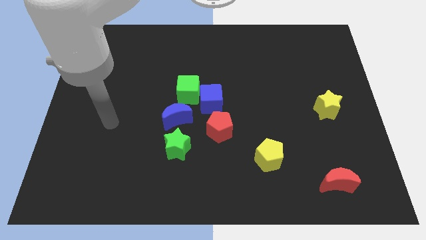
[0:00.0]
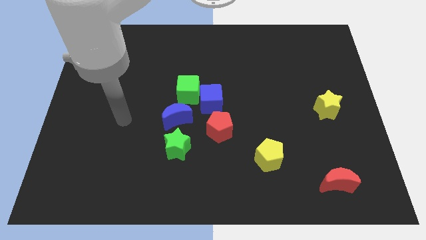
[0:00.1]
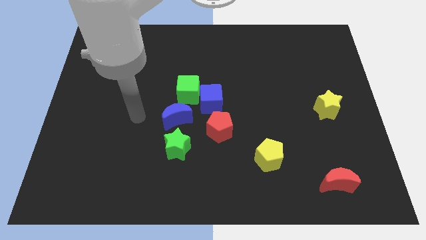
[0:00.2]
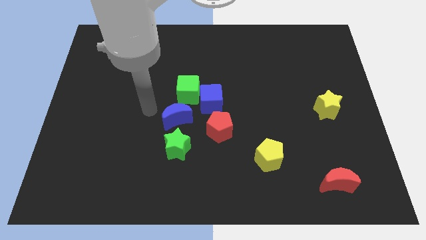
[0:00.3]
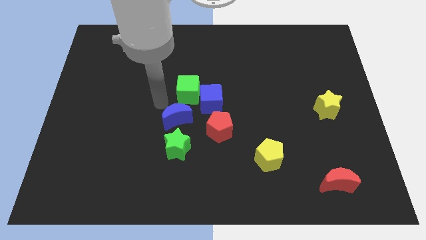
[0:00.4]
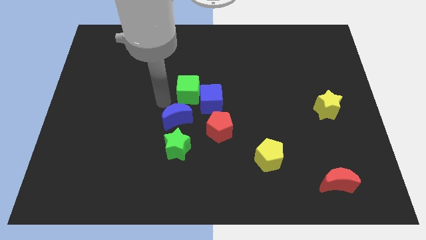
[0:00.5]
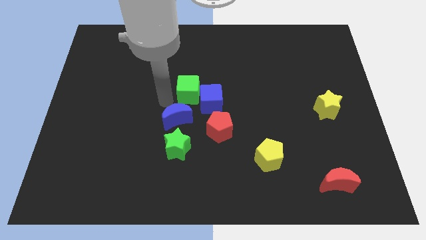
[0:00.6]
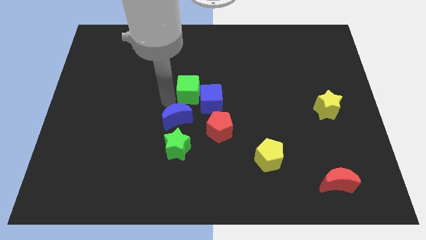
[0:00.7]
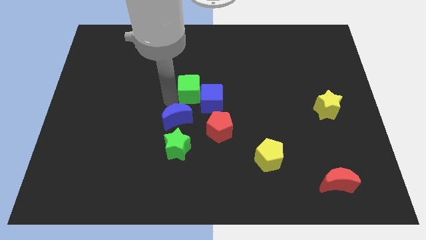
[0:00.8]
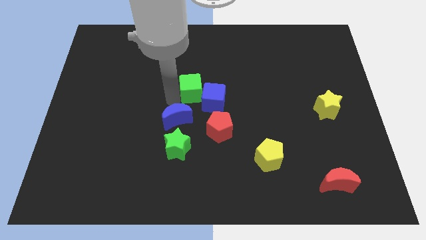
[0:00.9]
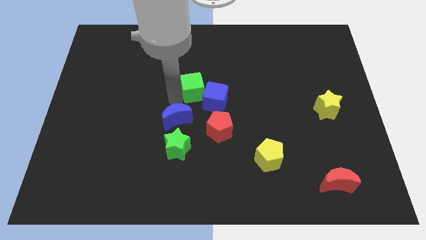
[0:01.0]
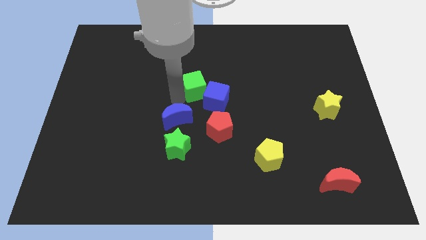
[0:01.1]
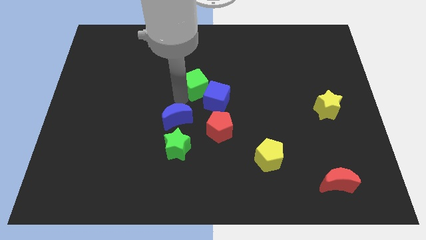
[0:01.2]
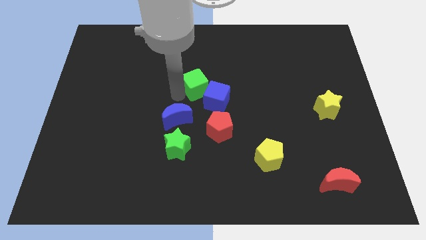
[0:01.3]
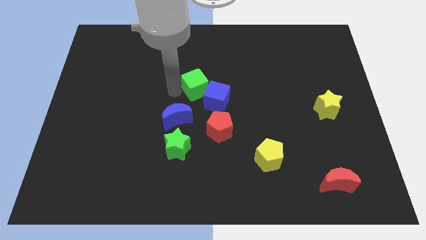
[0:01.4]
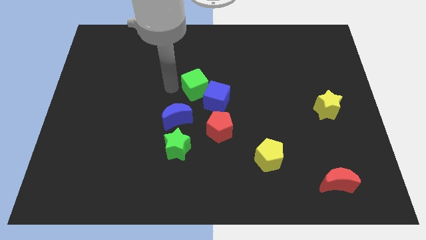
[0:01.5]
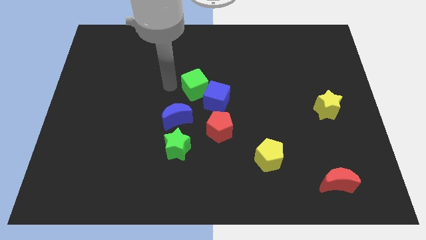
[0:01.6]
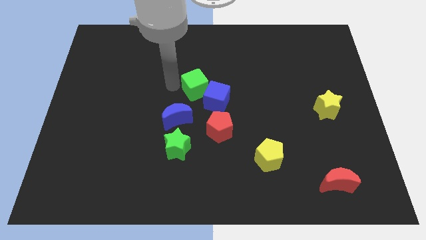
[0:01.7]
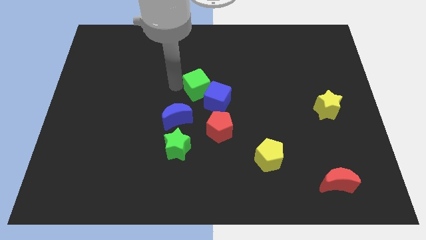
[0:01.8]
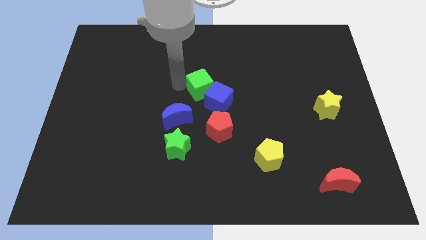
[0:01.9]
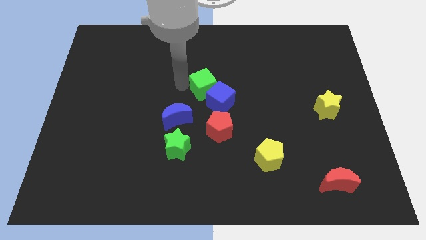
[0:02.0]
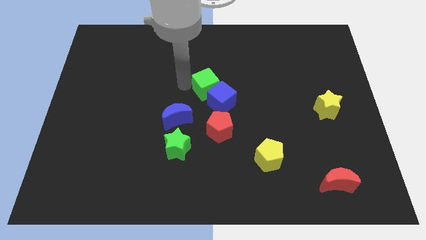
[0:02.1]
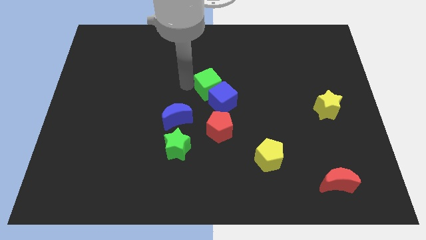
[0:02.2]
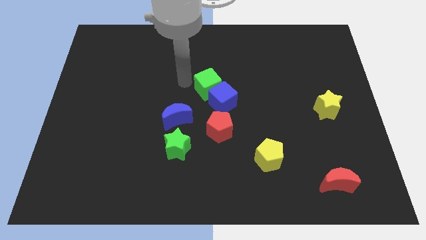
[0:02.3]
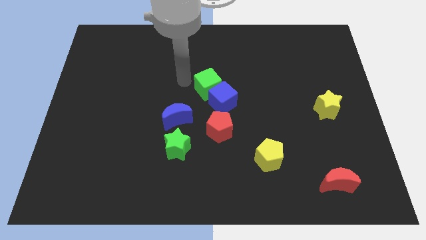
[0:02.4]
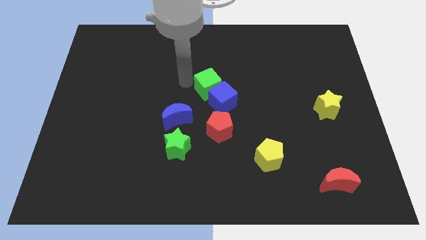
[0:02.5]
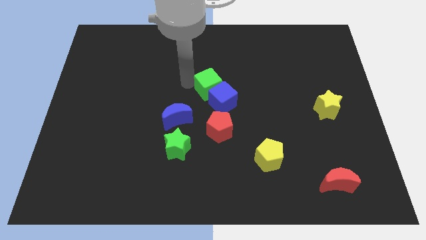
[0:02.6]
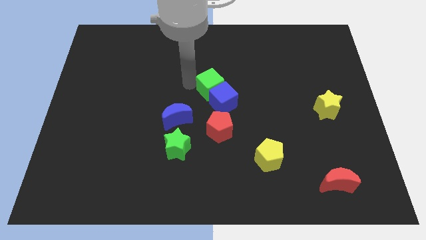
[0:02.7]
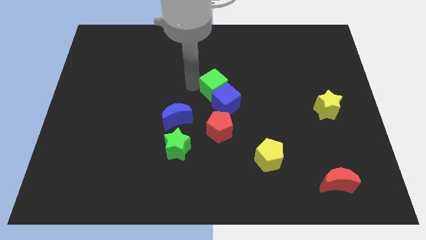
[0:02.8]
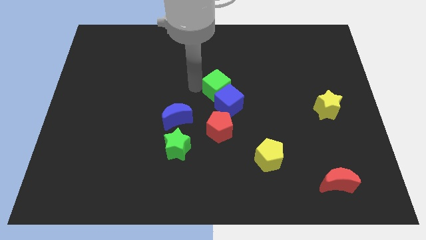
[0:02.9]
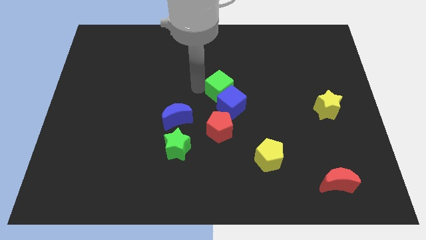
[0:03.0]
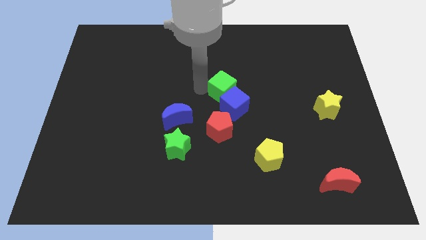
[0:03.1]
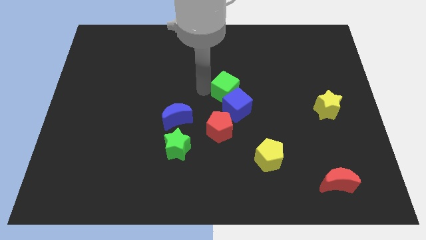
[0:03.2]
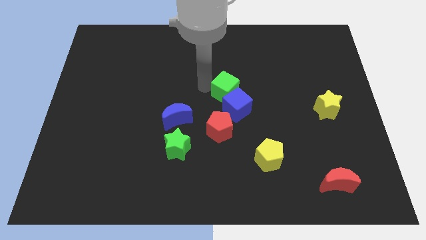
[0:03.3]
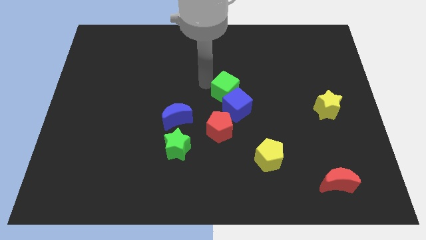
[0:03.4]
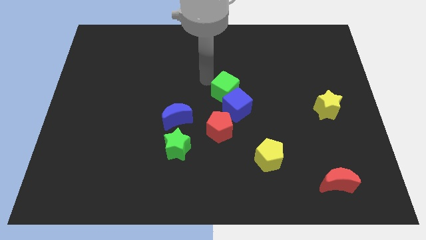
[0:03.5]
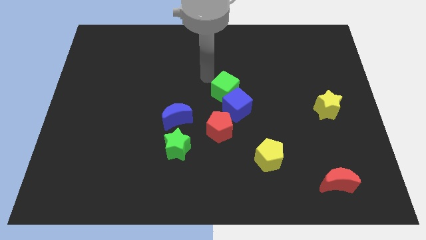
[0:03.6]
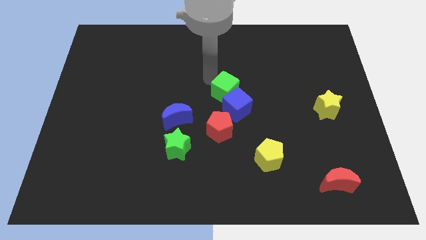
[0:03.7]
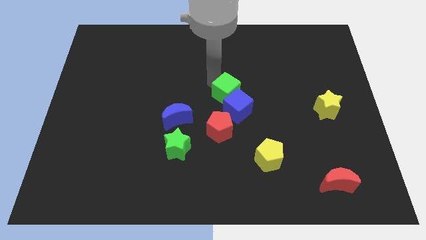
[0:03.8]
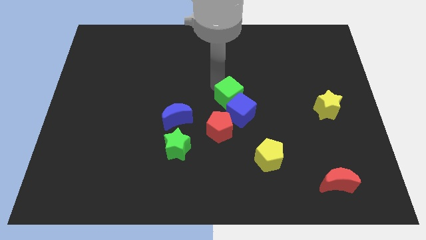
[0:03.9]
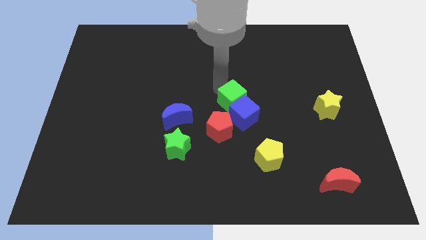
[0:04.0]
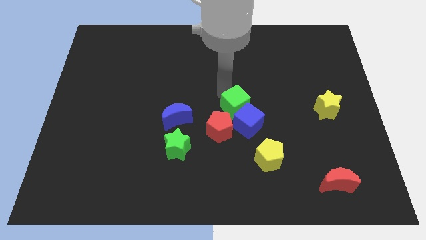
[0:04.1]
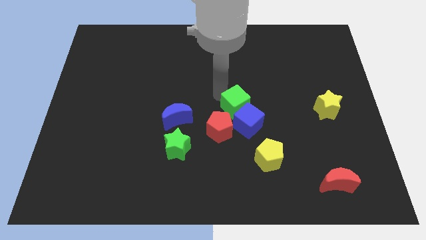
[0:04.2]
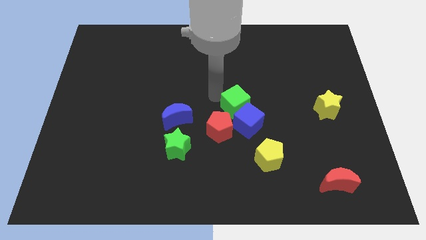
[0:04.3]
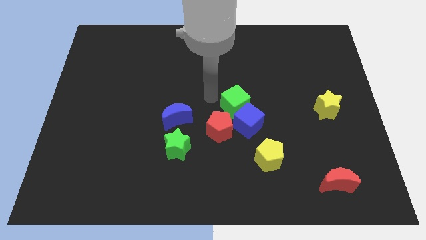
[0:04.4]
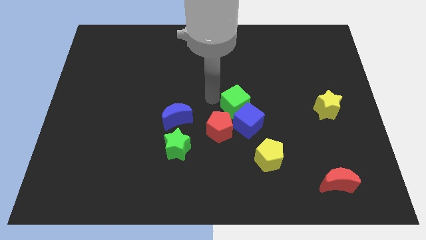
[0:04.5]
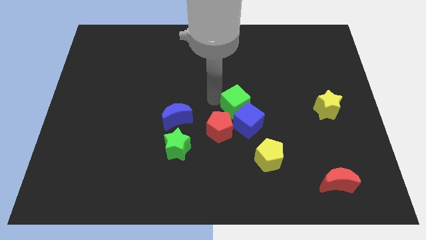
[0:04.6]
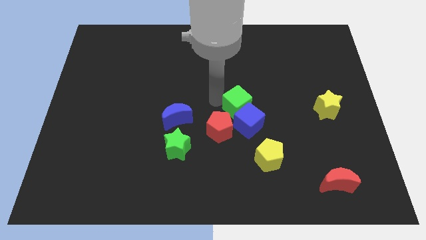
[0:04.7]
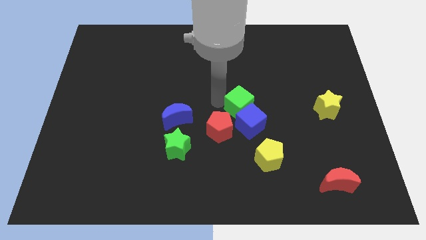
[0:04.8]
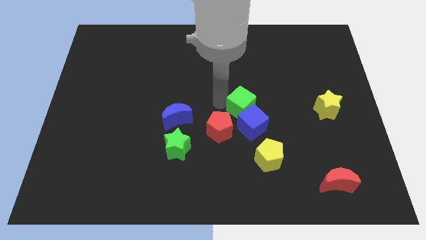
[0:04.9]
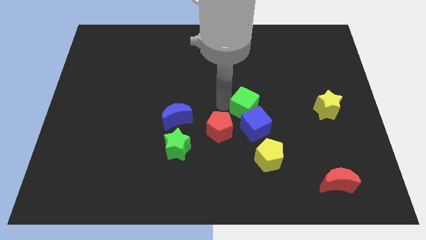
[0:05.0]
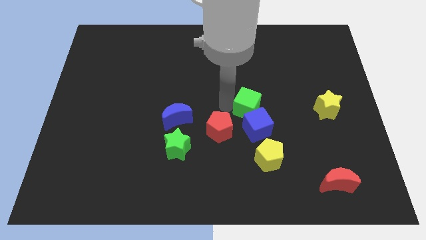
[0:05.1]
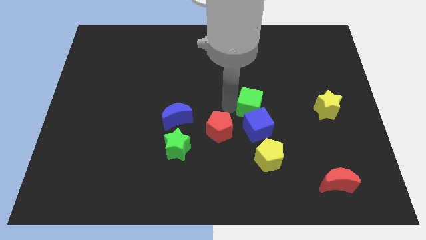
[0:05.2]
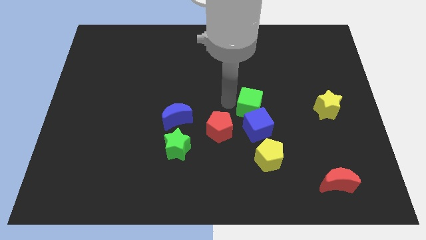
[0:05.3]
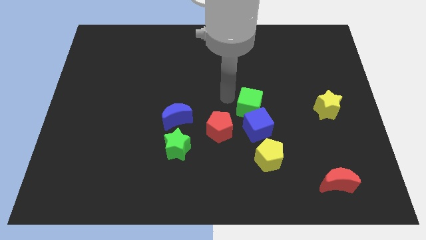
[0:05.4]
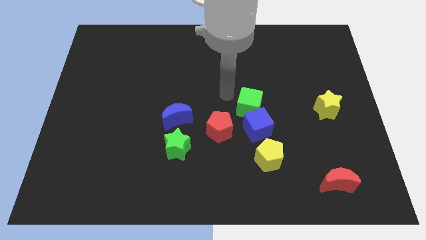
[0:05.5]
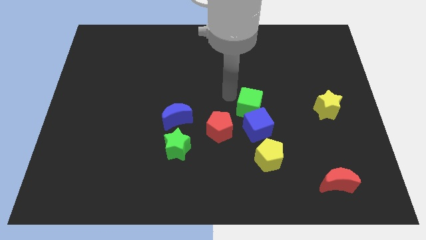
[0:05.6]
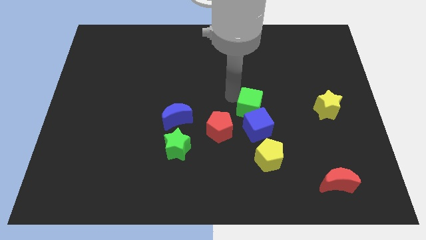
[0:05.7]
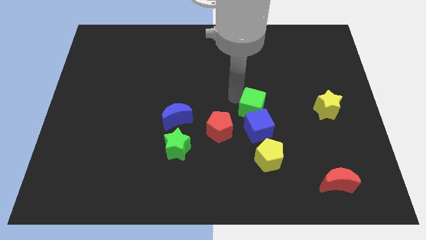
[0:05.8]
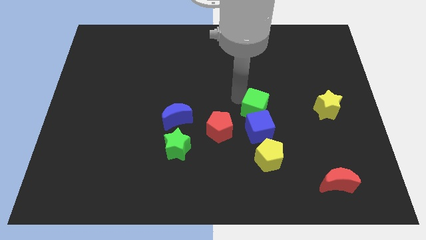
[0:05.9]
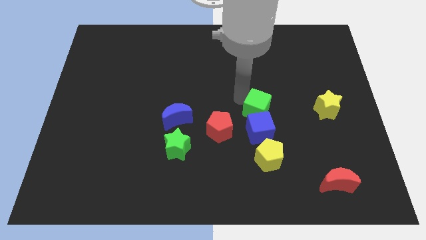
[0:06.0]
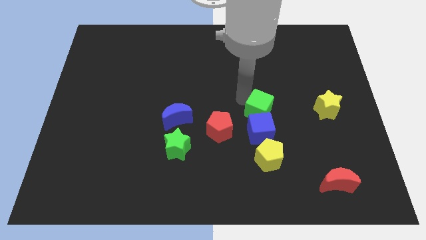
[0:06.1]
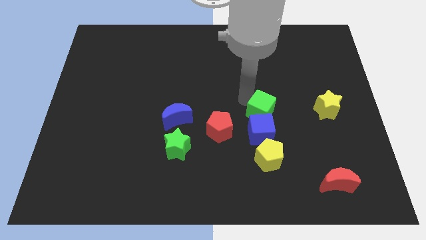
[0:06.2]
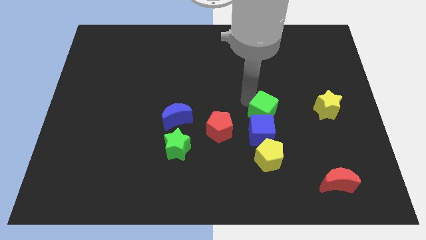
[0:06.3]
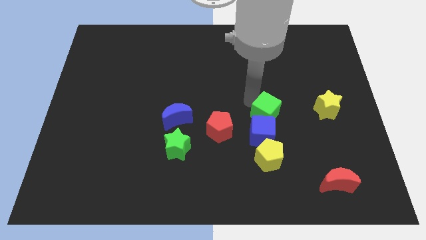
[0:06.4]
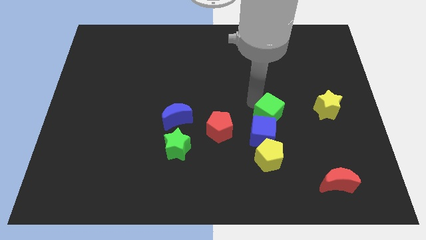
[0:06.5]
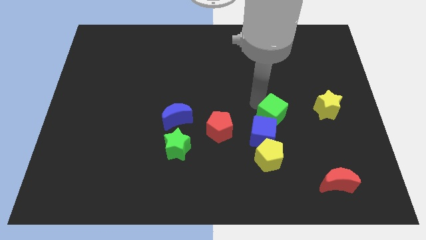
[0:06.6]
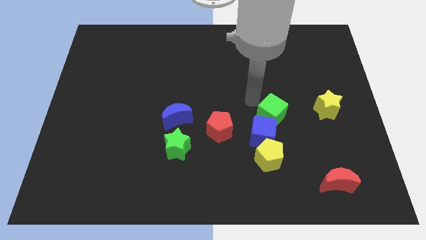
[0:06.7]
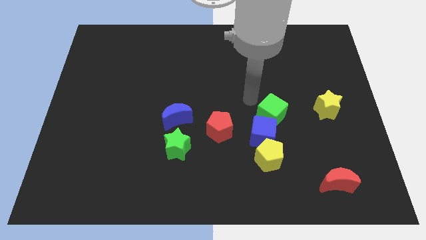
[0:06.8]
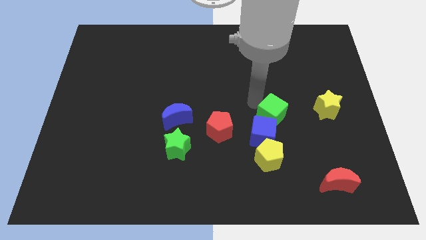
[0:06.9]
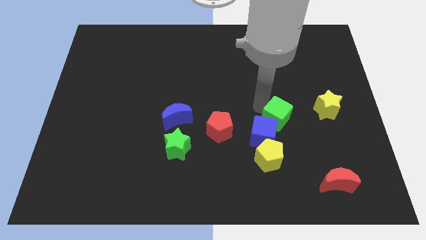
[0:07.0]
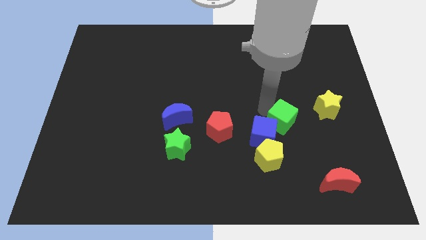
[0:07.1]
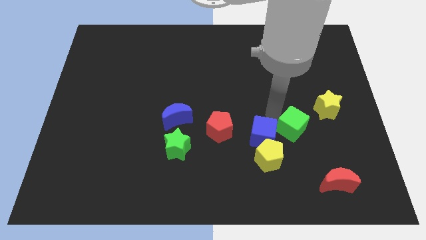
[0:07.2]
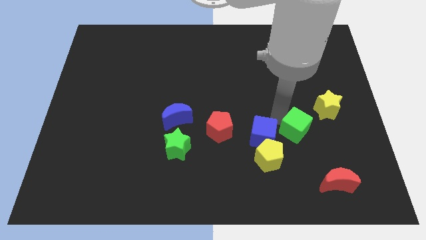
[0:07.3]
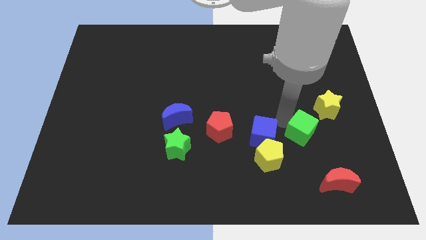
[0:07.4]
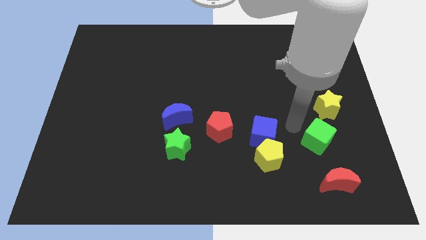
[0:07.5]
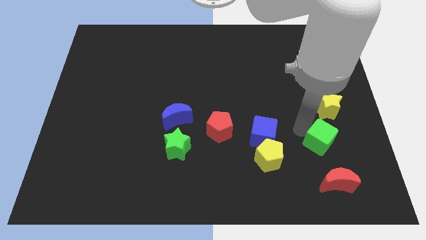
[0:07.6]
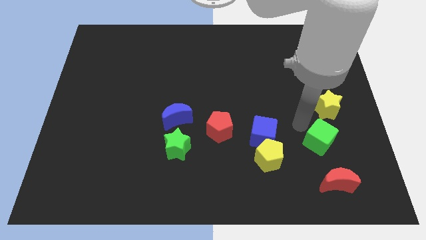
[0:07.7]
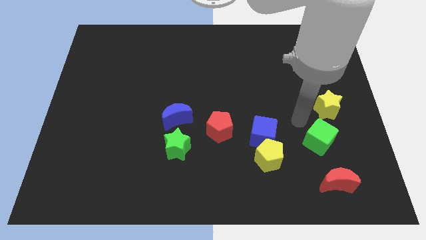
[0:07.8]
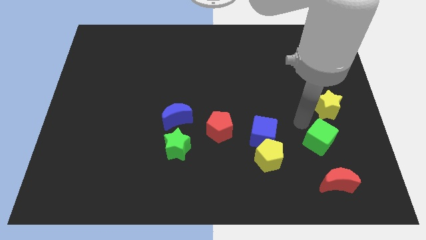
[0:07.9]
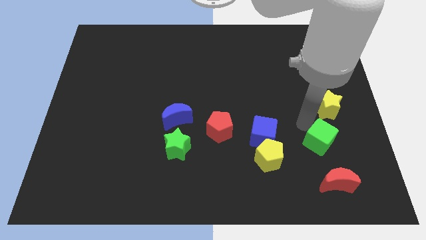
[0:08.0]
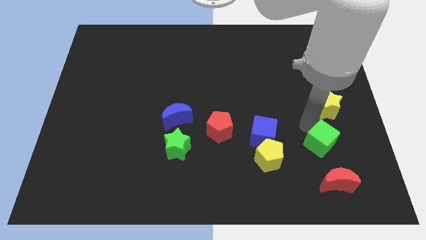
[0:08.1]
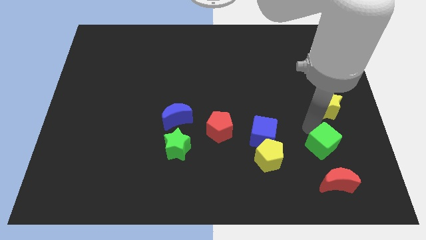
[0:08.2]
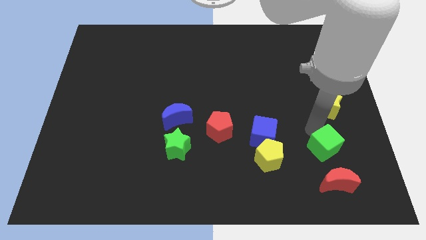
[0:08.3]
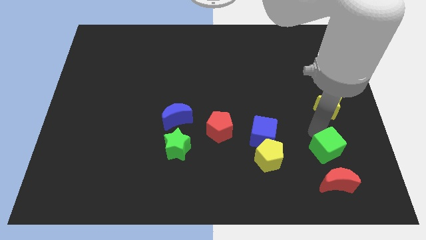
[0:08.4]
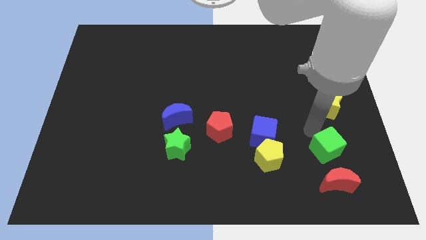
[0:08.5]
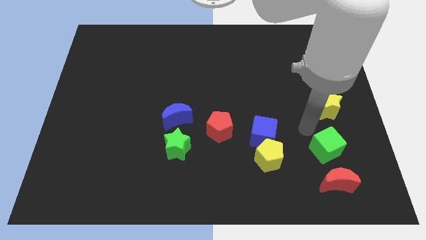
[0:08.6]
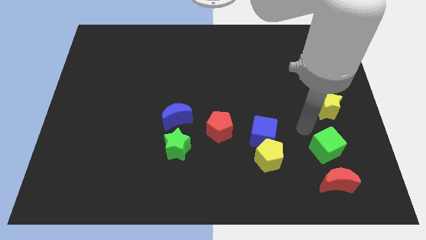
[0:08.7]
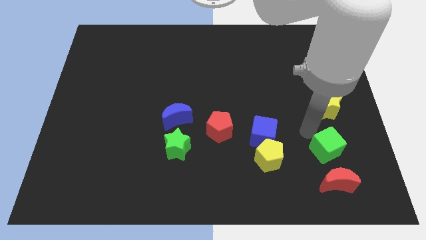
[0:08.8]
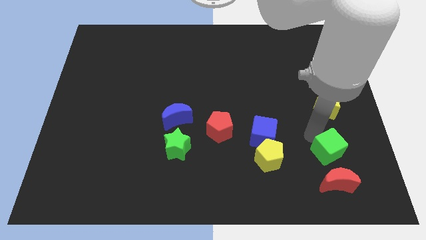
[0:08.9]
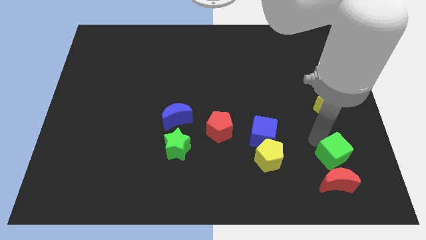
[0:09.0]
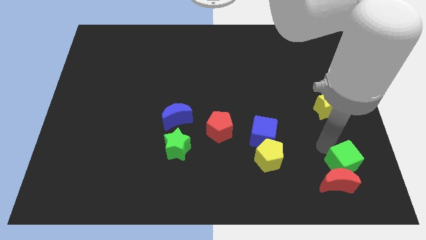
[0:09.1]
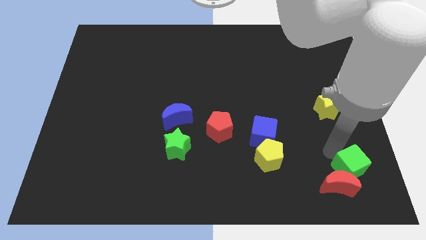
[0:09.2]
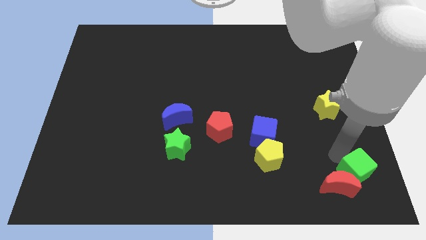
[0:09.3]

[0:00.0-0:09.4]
move the green cube to the bottom right corner
